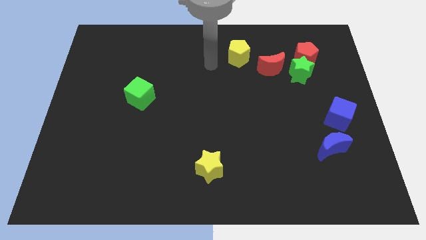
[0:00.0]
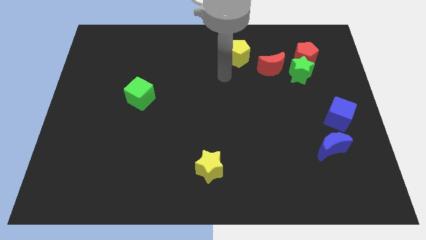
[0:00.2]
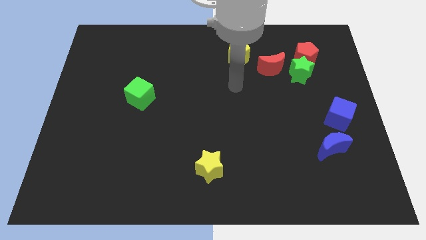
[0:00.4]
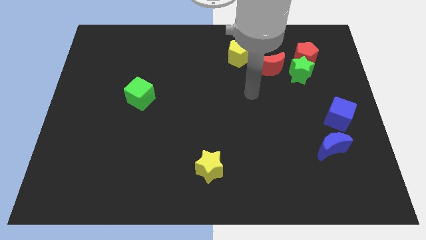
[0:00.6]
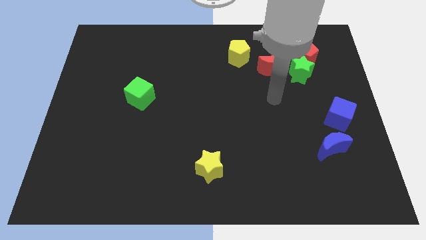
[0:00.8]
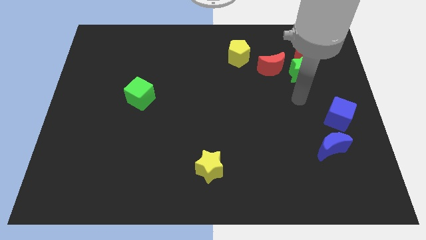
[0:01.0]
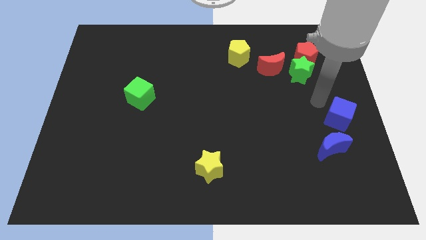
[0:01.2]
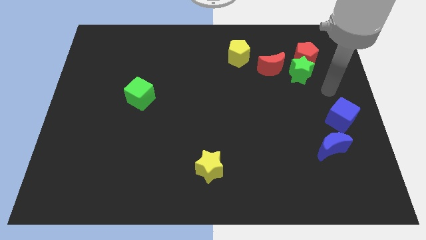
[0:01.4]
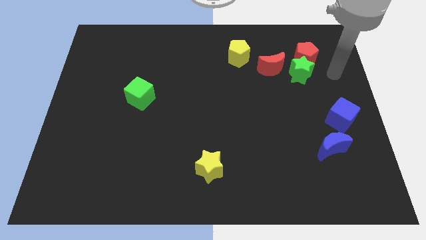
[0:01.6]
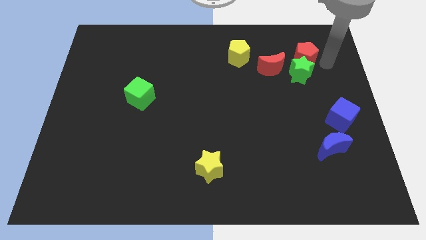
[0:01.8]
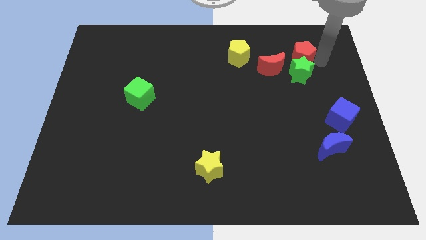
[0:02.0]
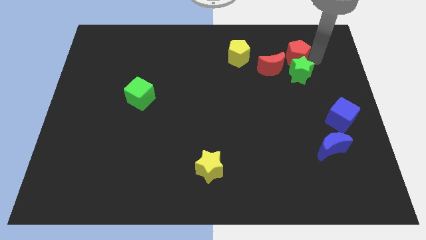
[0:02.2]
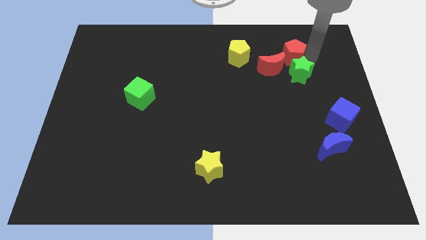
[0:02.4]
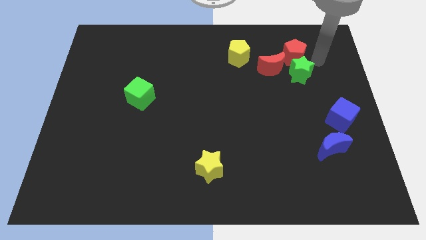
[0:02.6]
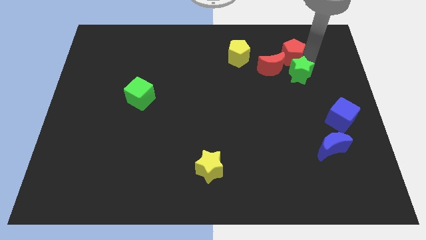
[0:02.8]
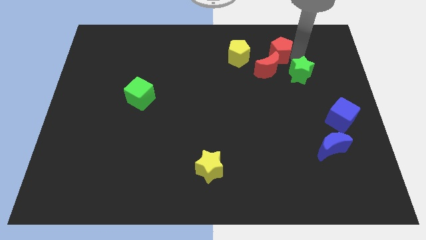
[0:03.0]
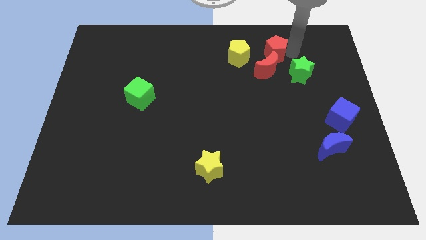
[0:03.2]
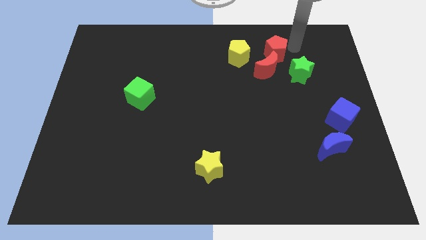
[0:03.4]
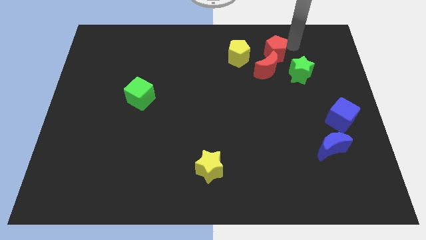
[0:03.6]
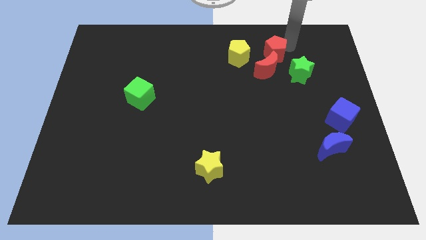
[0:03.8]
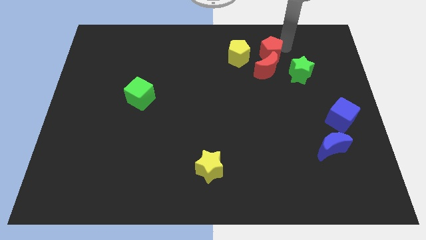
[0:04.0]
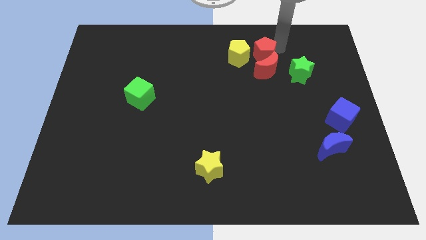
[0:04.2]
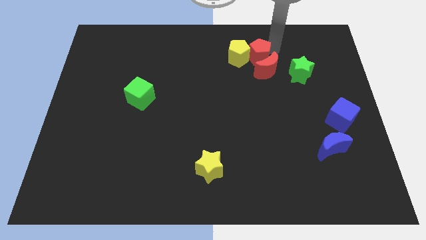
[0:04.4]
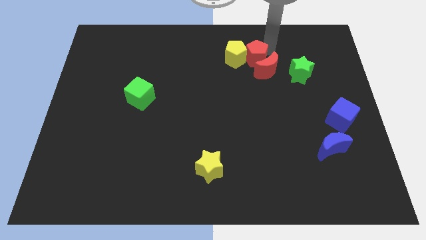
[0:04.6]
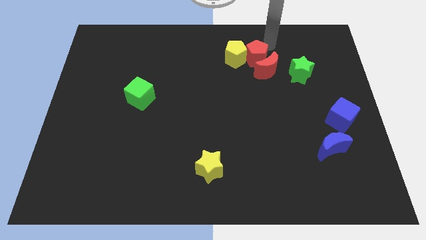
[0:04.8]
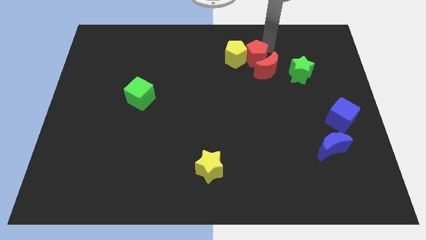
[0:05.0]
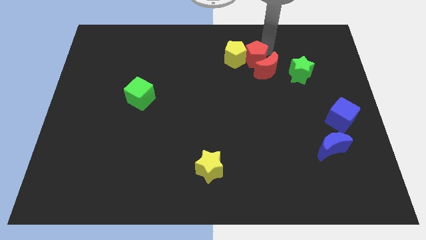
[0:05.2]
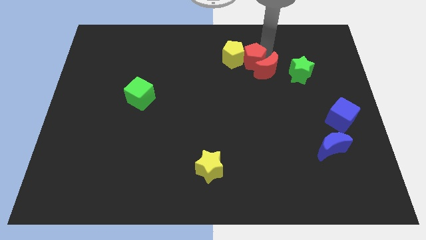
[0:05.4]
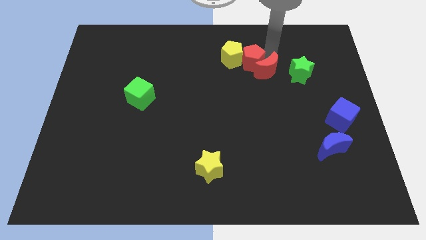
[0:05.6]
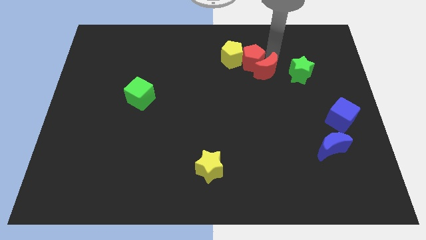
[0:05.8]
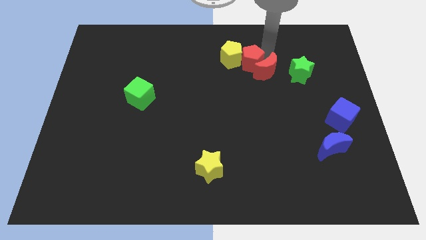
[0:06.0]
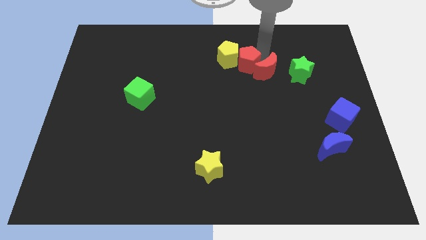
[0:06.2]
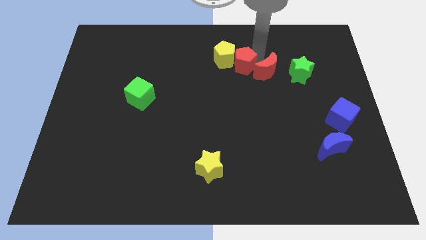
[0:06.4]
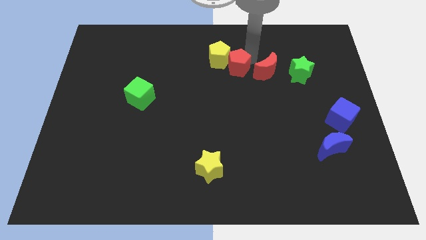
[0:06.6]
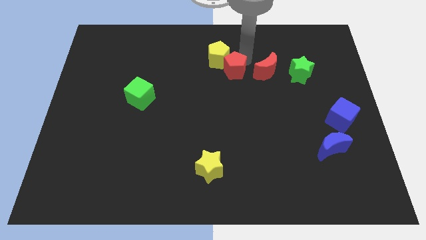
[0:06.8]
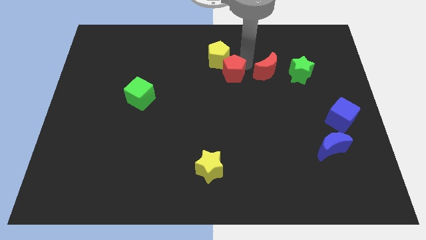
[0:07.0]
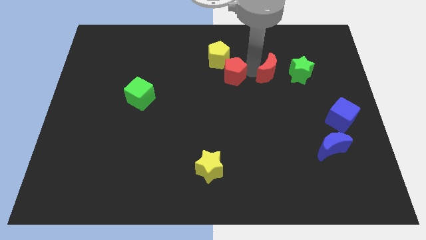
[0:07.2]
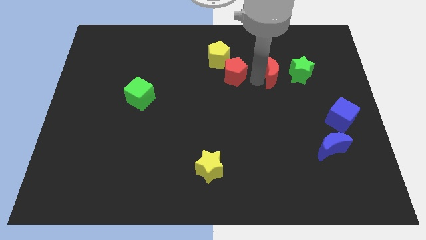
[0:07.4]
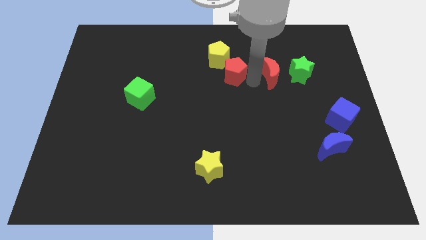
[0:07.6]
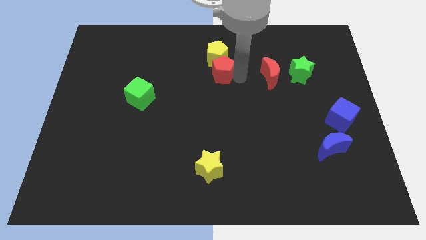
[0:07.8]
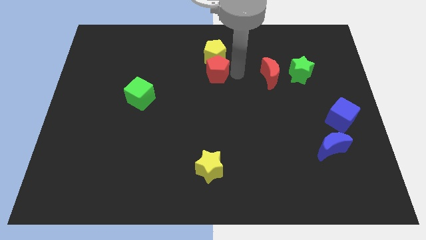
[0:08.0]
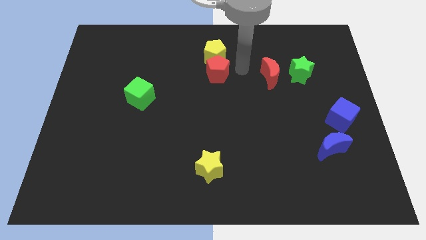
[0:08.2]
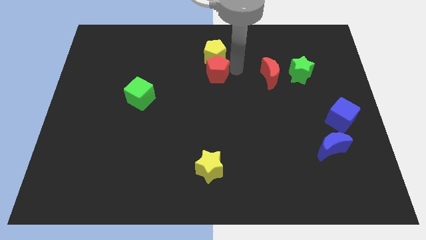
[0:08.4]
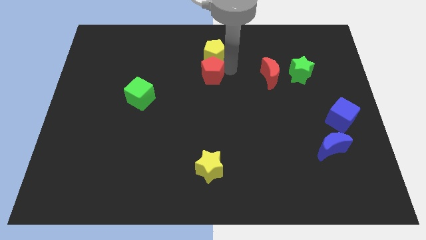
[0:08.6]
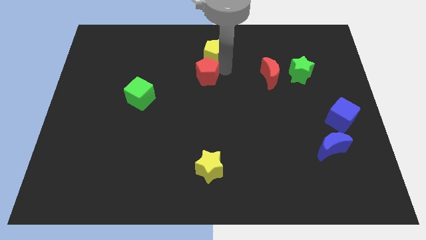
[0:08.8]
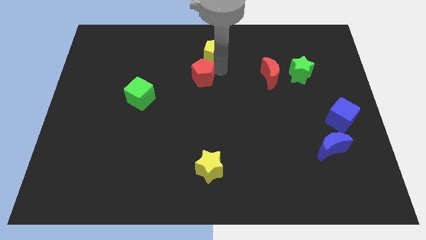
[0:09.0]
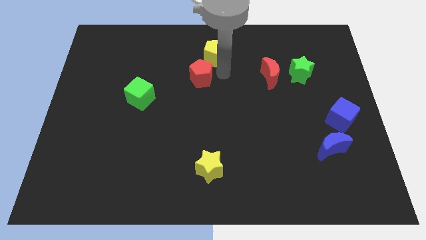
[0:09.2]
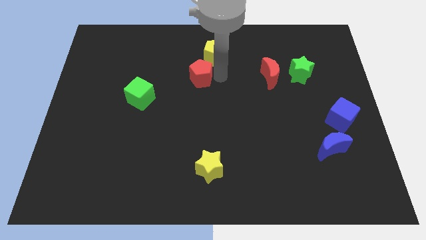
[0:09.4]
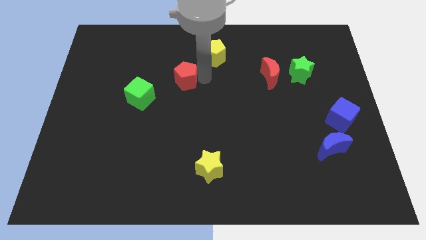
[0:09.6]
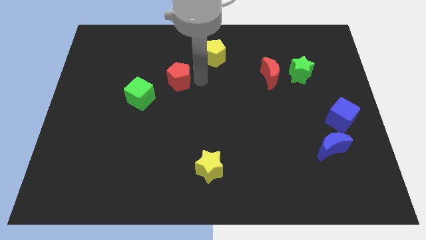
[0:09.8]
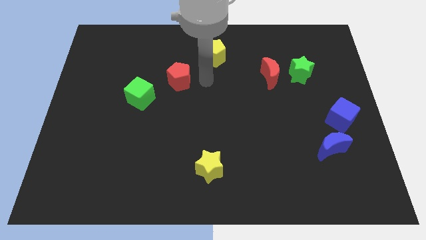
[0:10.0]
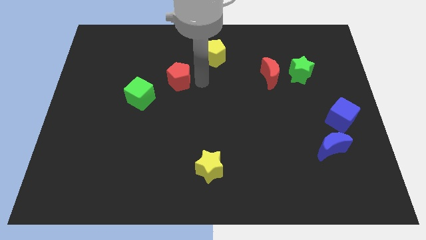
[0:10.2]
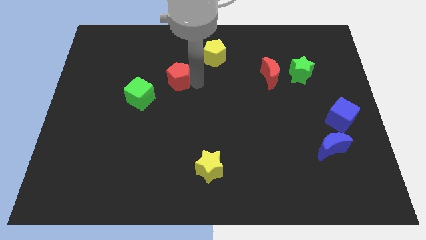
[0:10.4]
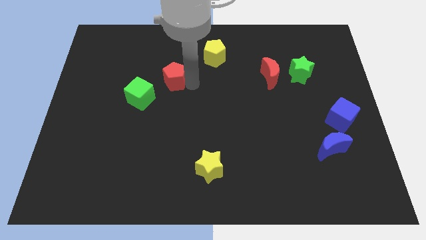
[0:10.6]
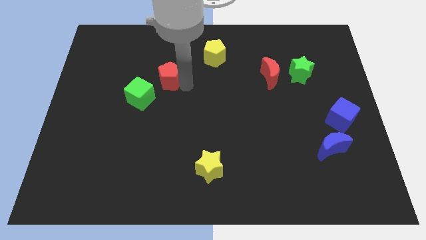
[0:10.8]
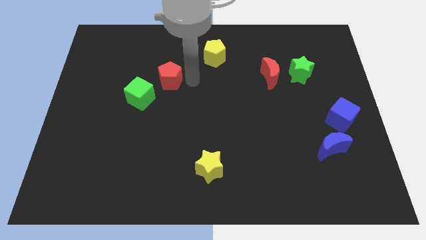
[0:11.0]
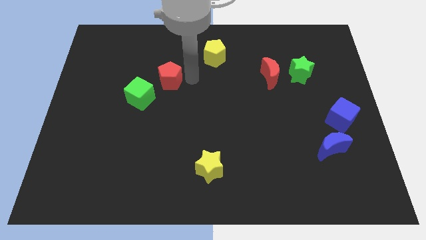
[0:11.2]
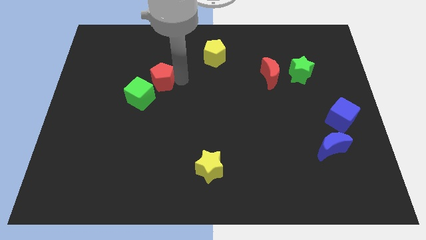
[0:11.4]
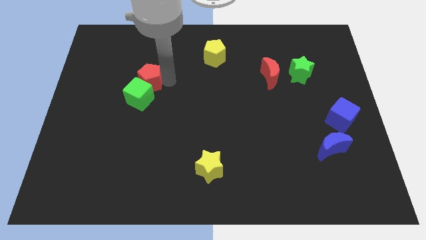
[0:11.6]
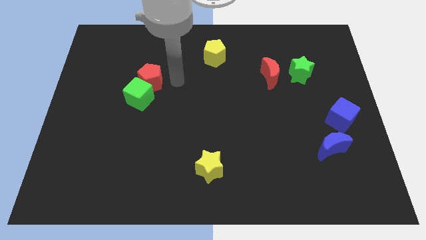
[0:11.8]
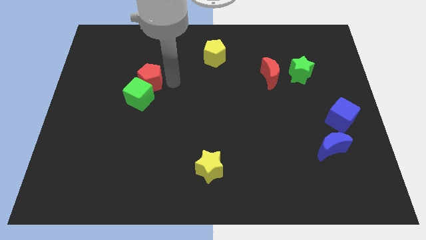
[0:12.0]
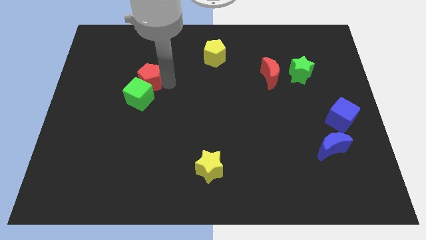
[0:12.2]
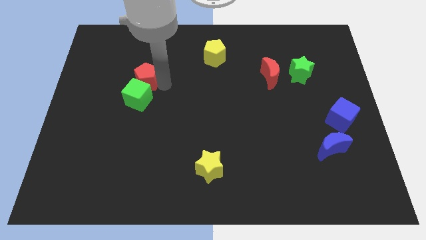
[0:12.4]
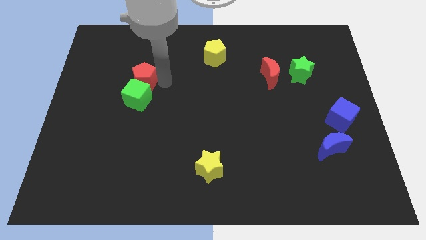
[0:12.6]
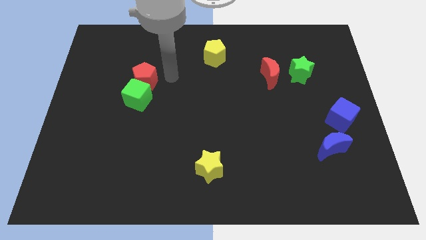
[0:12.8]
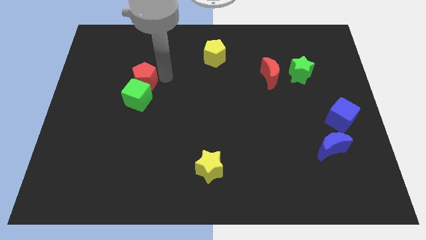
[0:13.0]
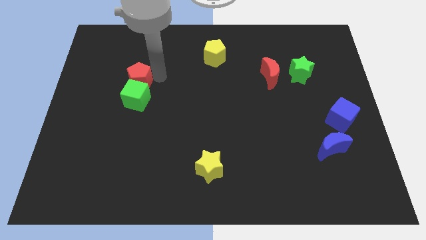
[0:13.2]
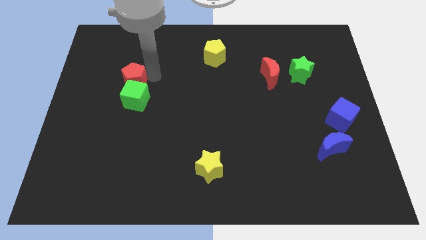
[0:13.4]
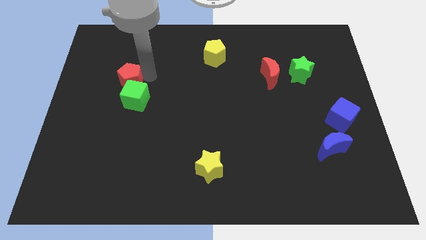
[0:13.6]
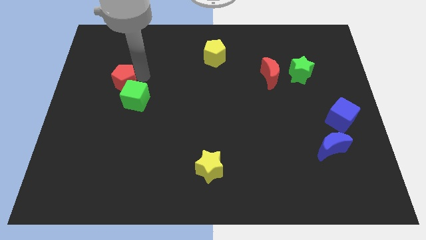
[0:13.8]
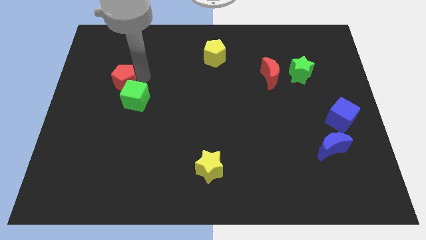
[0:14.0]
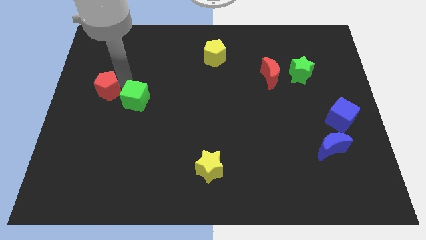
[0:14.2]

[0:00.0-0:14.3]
push the red pentagon to the left side
